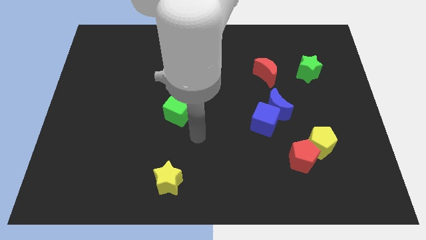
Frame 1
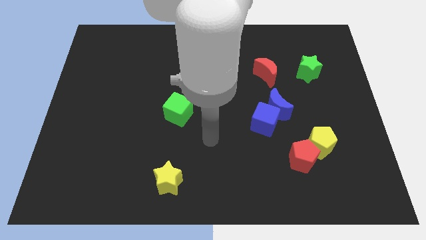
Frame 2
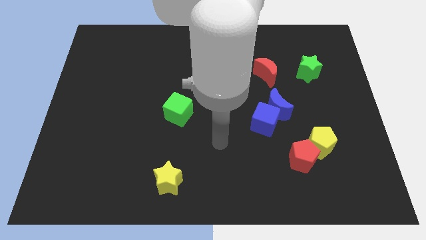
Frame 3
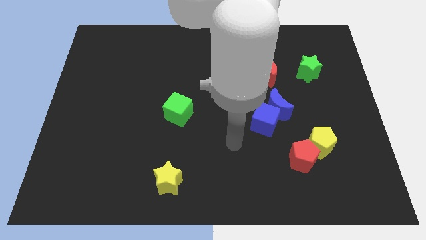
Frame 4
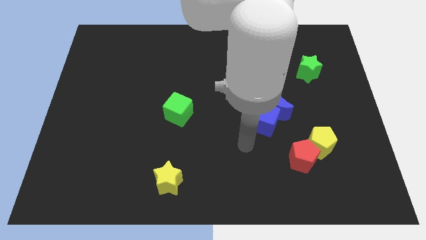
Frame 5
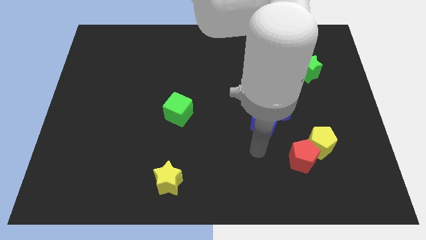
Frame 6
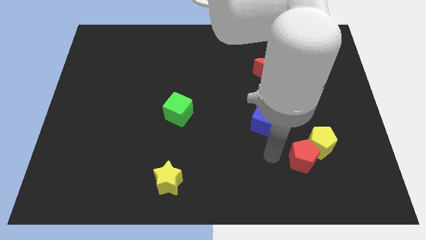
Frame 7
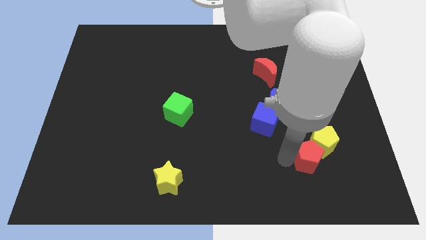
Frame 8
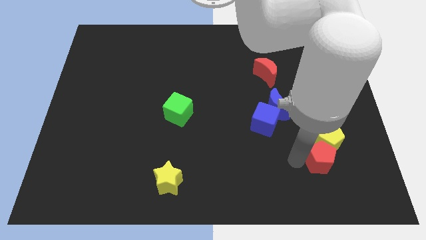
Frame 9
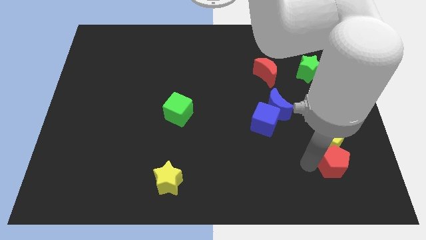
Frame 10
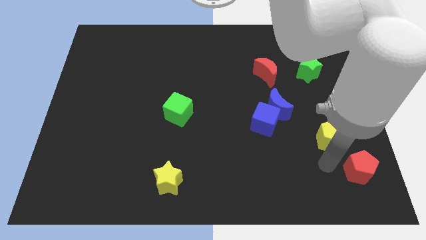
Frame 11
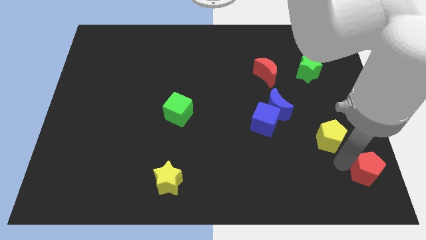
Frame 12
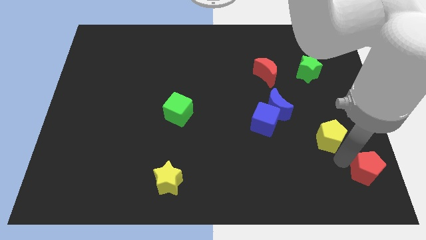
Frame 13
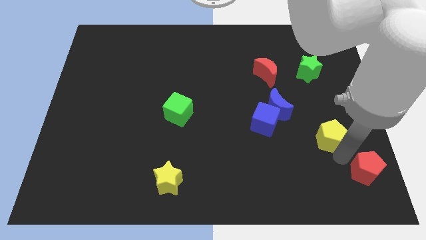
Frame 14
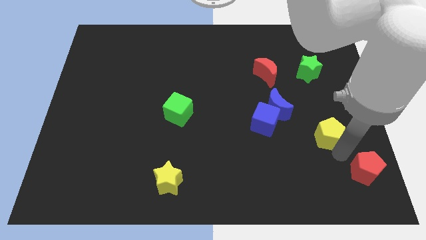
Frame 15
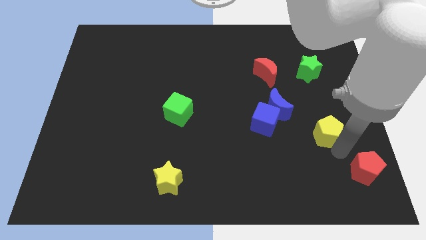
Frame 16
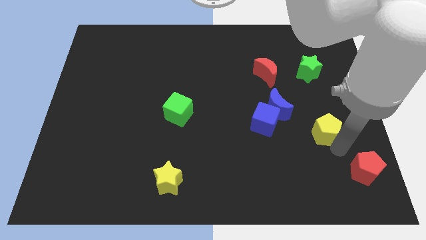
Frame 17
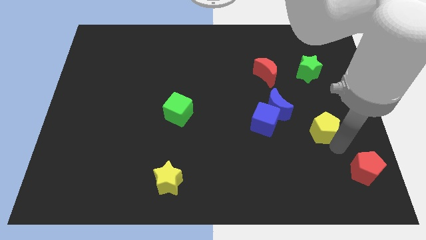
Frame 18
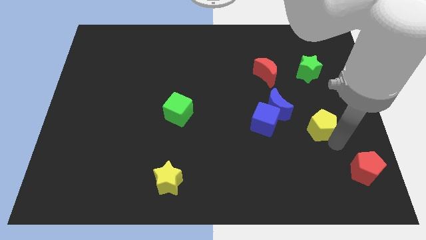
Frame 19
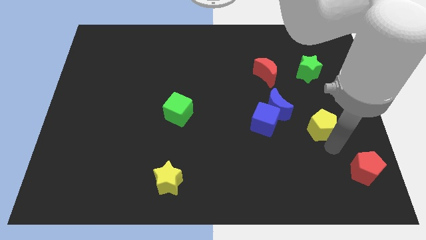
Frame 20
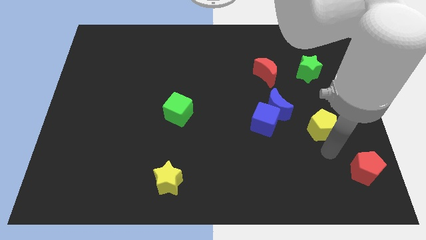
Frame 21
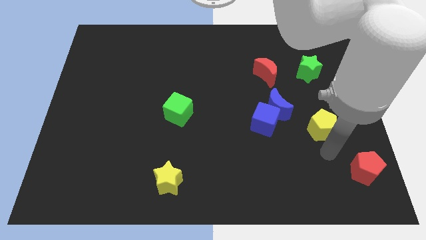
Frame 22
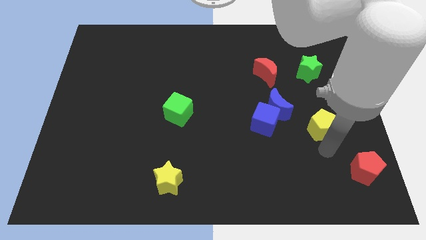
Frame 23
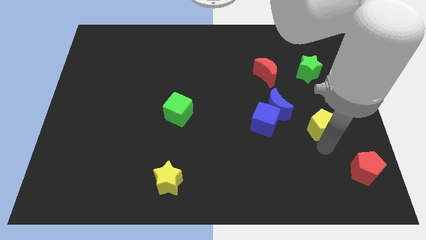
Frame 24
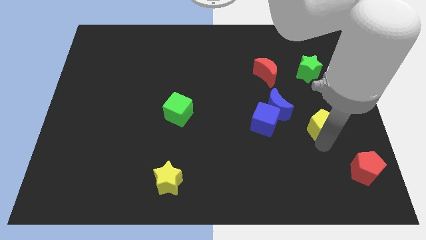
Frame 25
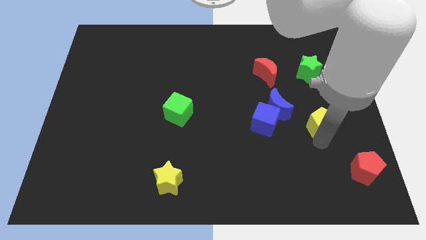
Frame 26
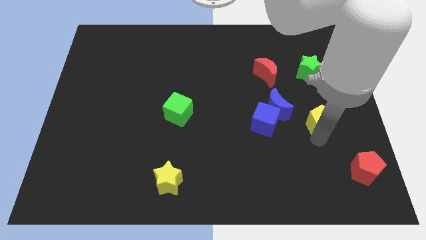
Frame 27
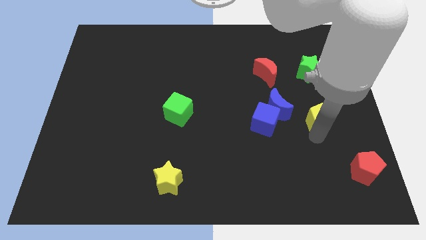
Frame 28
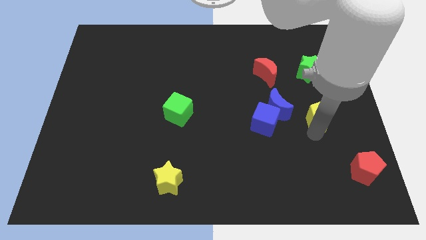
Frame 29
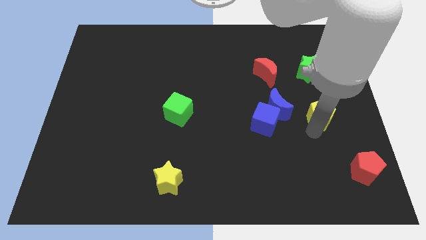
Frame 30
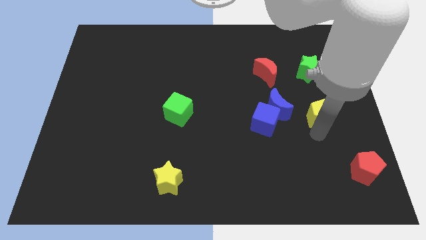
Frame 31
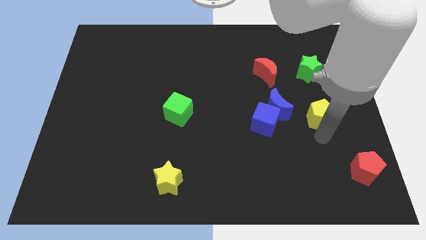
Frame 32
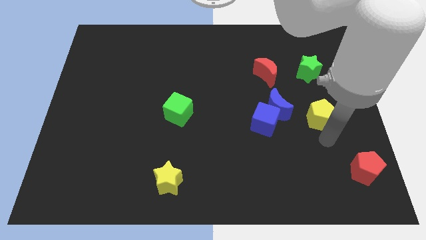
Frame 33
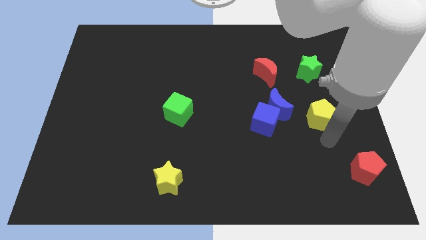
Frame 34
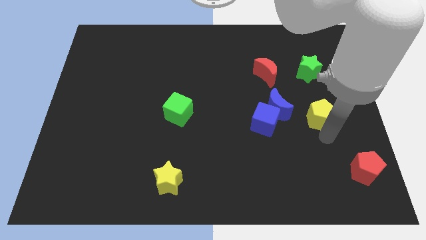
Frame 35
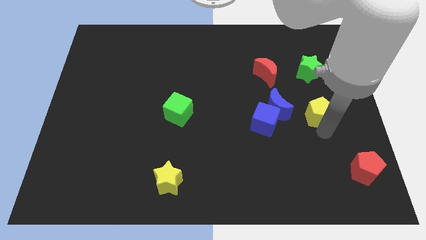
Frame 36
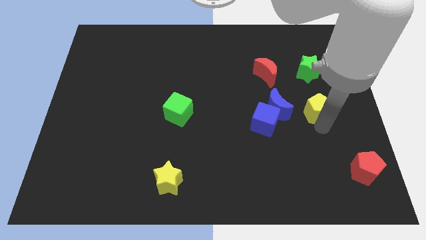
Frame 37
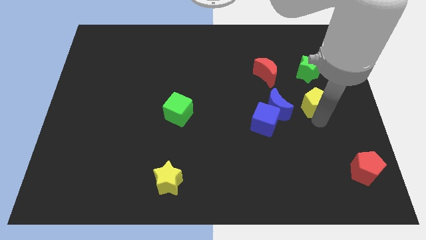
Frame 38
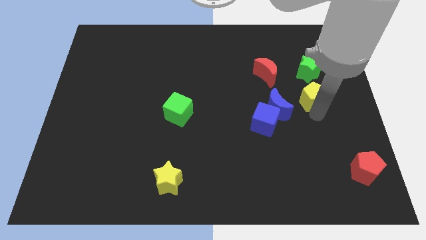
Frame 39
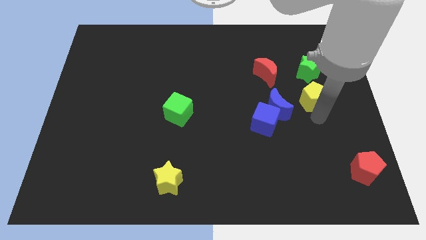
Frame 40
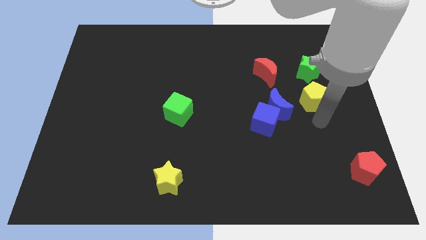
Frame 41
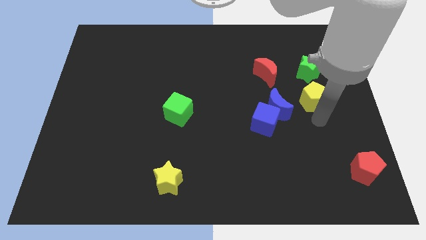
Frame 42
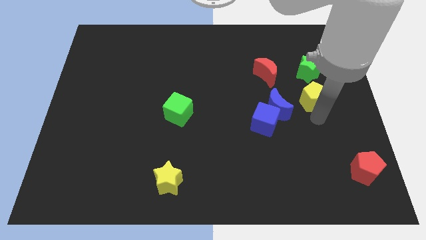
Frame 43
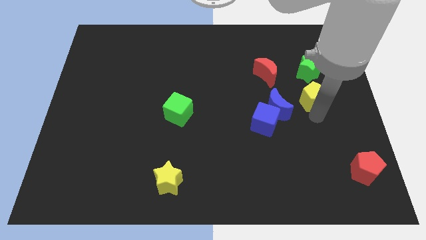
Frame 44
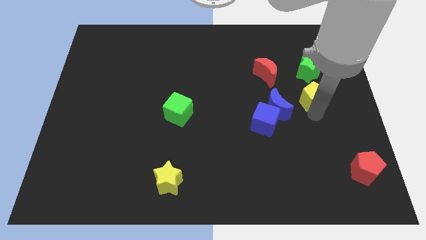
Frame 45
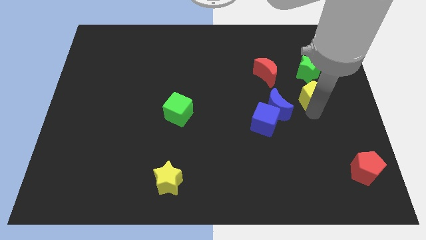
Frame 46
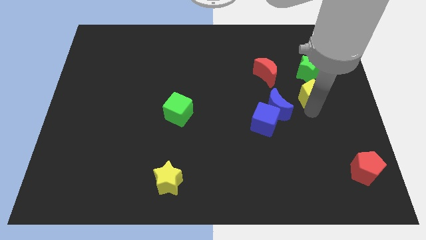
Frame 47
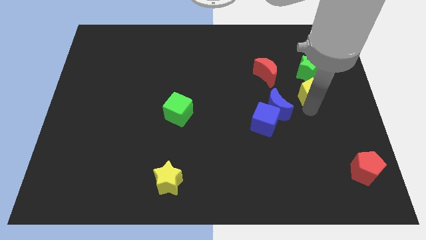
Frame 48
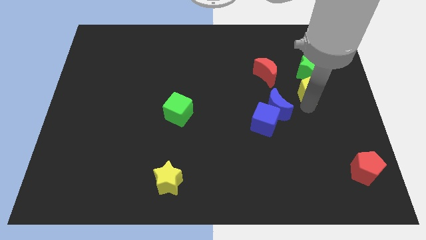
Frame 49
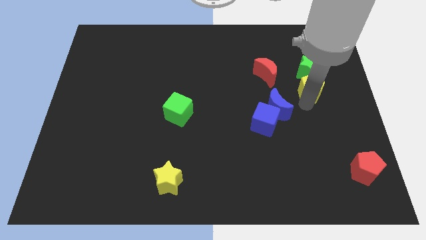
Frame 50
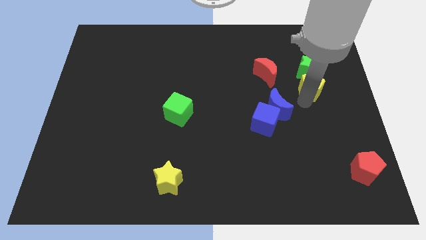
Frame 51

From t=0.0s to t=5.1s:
push the yellow pentagon towards the green star

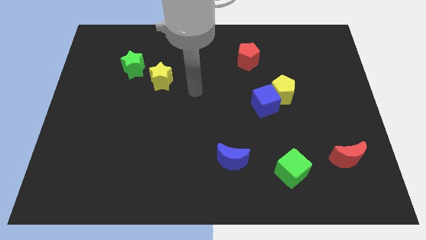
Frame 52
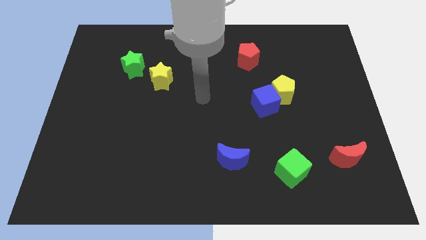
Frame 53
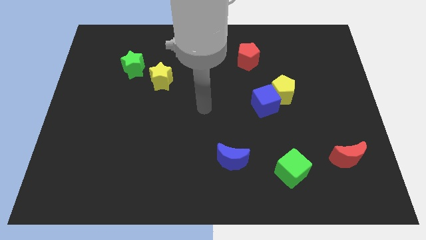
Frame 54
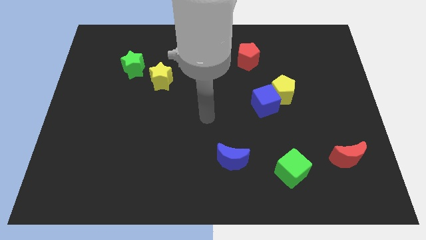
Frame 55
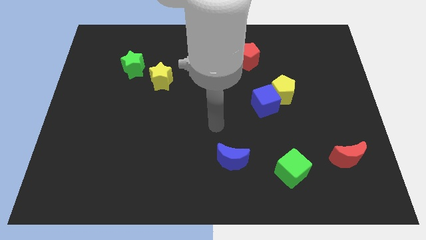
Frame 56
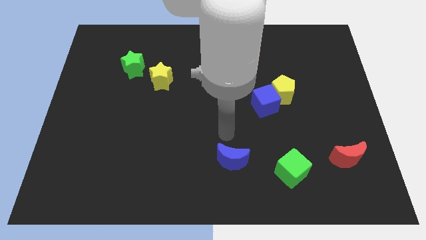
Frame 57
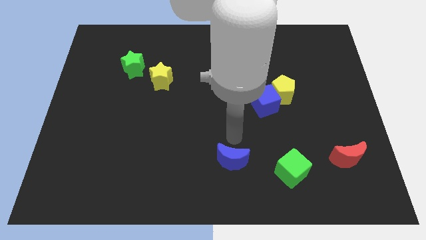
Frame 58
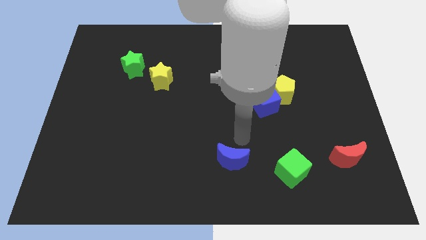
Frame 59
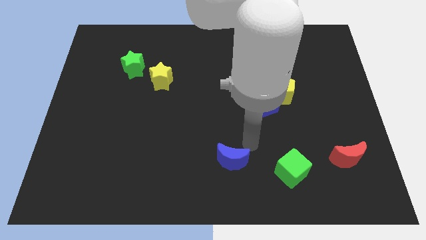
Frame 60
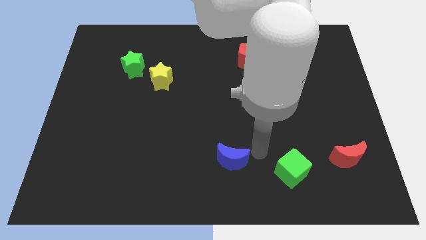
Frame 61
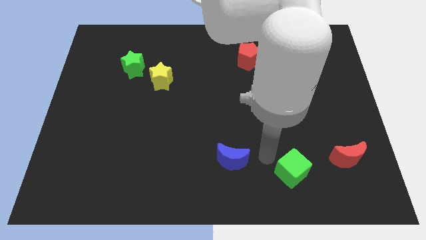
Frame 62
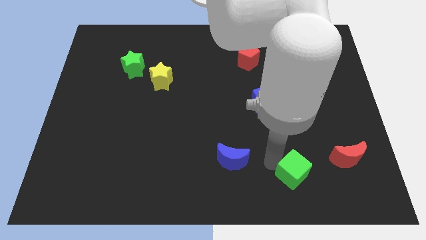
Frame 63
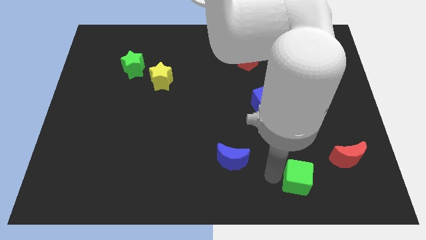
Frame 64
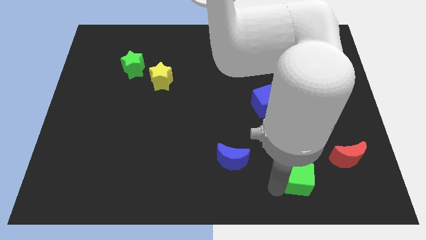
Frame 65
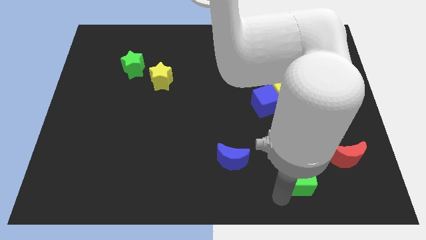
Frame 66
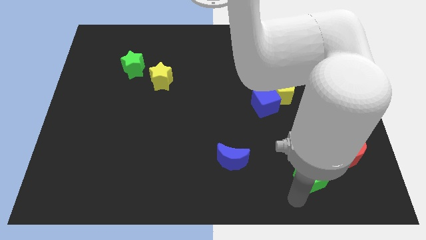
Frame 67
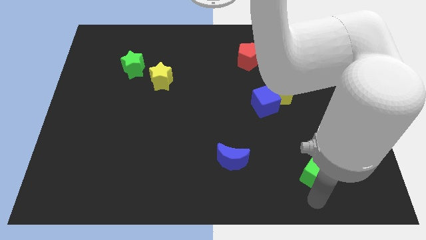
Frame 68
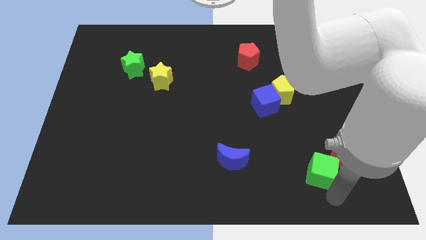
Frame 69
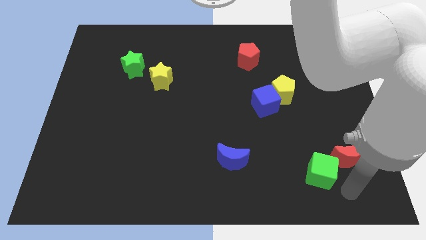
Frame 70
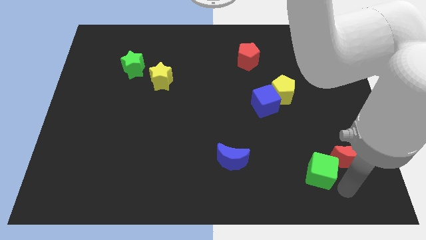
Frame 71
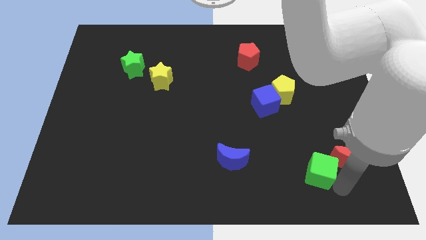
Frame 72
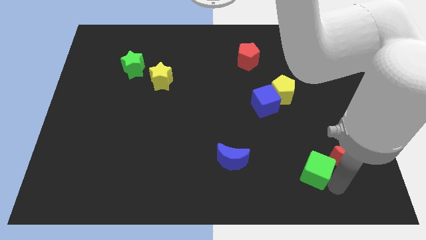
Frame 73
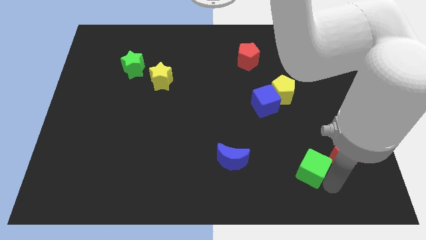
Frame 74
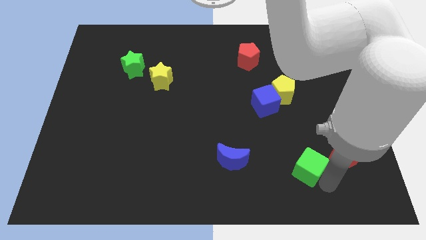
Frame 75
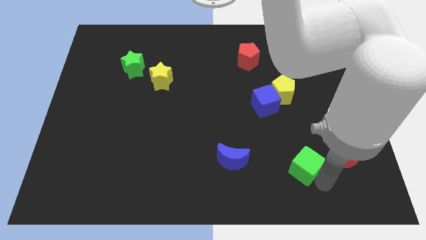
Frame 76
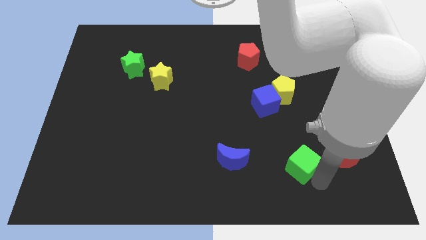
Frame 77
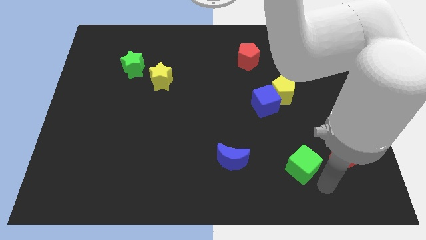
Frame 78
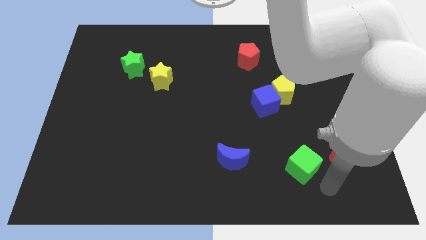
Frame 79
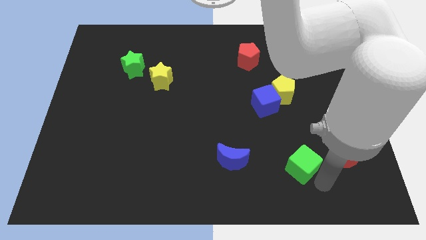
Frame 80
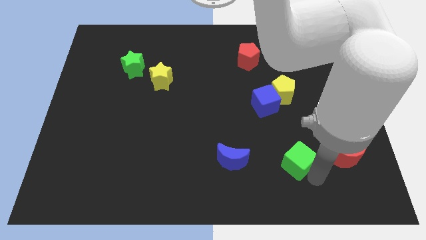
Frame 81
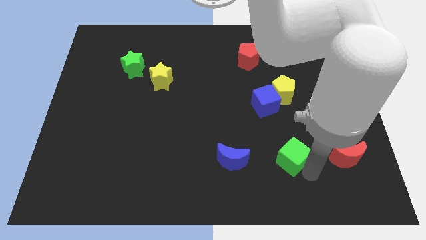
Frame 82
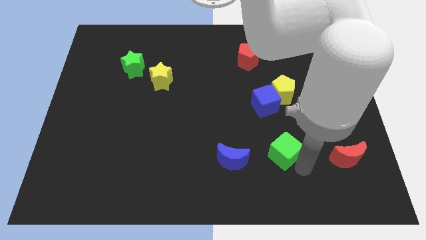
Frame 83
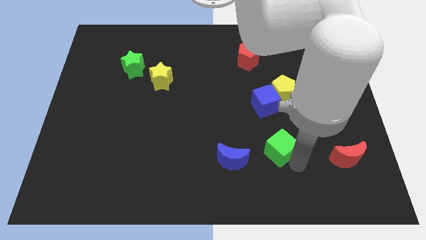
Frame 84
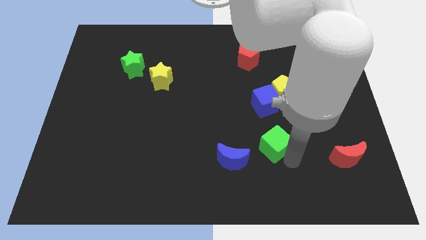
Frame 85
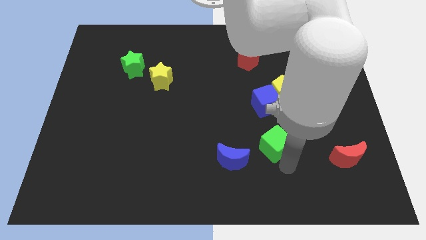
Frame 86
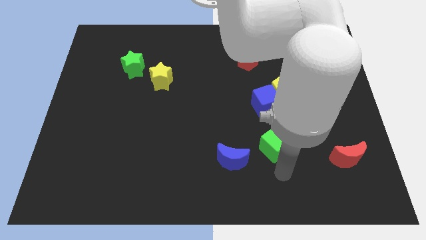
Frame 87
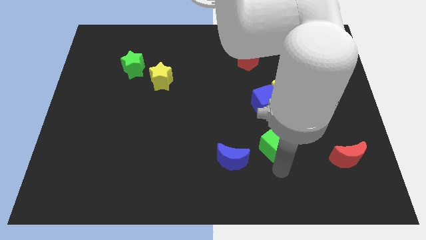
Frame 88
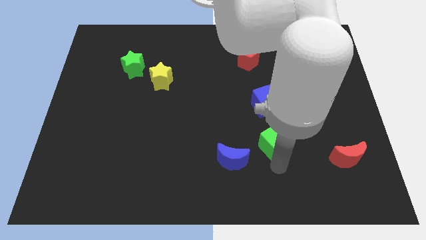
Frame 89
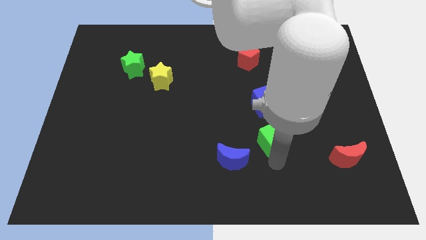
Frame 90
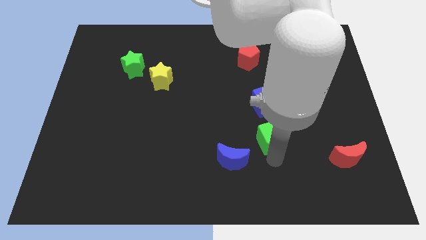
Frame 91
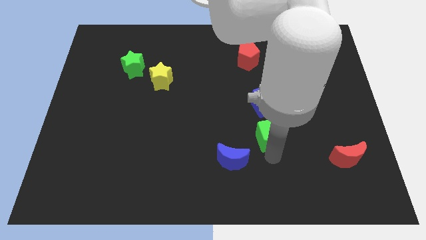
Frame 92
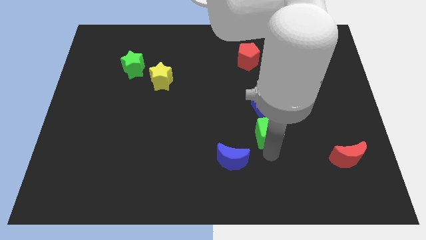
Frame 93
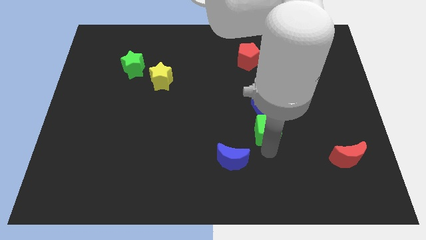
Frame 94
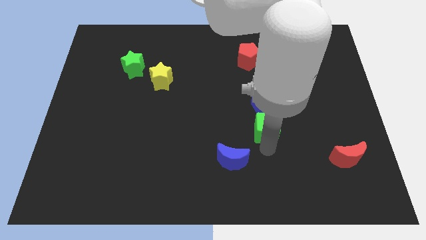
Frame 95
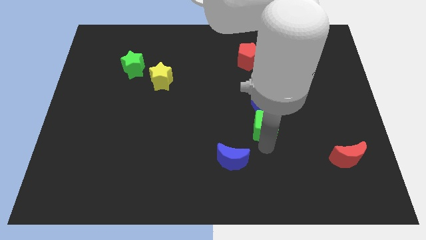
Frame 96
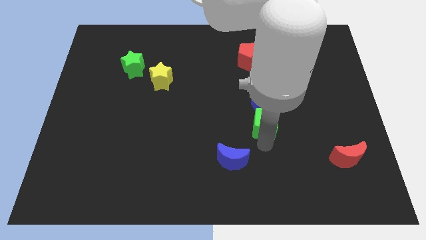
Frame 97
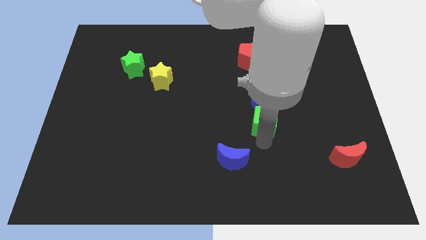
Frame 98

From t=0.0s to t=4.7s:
slide the green cube next to the blue cube
